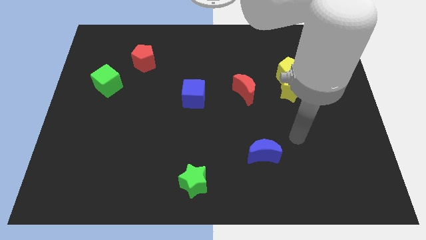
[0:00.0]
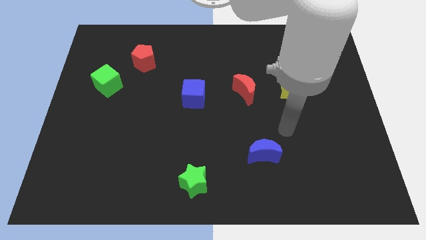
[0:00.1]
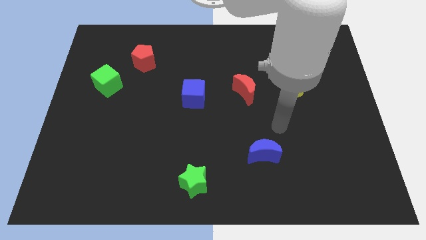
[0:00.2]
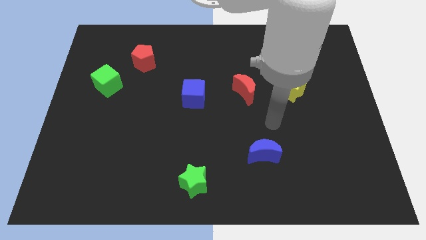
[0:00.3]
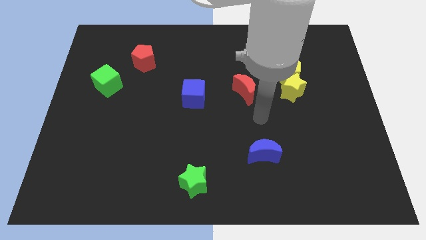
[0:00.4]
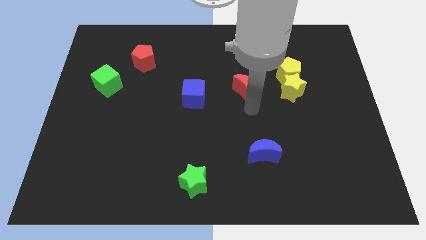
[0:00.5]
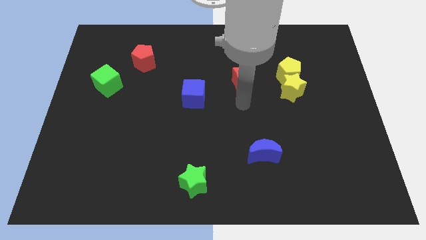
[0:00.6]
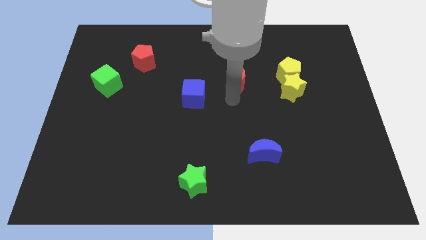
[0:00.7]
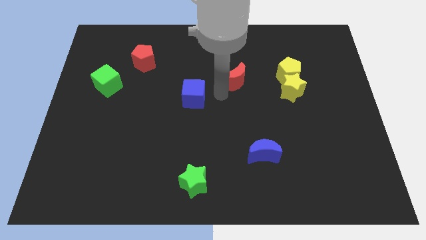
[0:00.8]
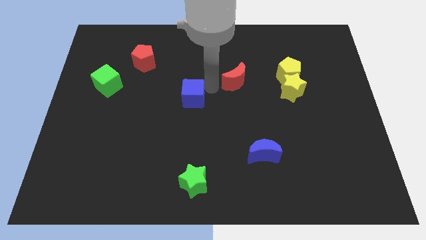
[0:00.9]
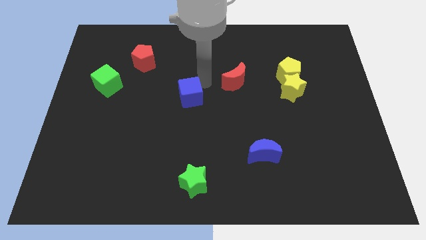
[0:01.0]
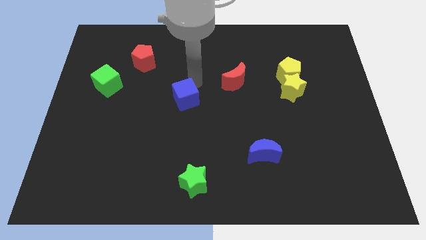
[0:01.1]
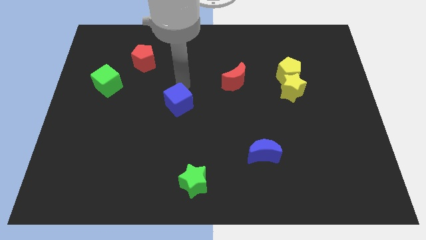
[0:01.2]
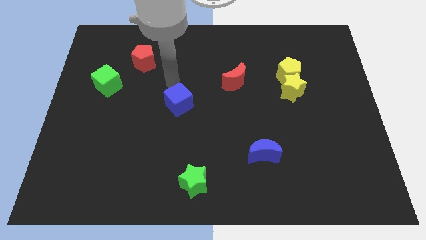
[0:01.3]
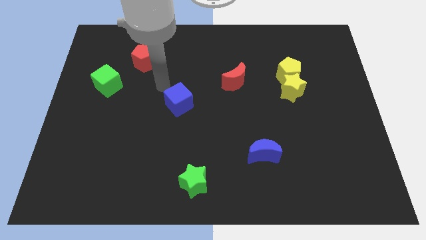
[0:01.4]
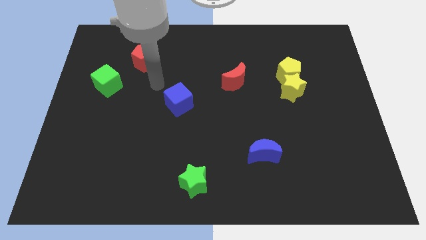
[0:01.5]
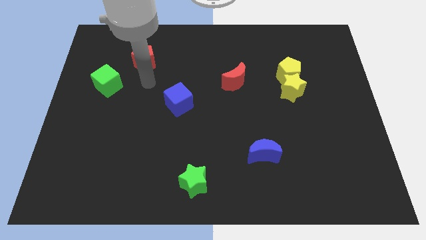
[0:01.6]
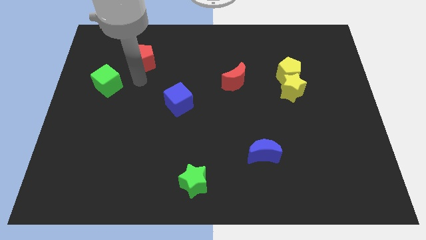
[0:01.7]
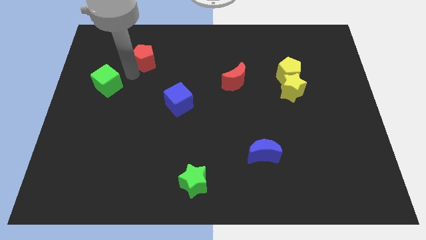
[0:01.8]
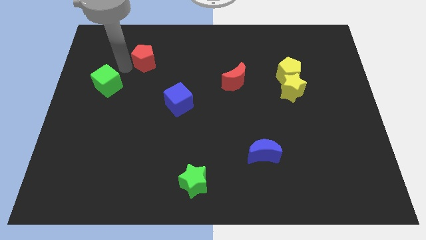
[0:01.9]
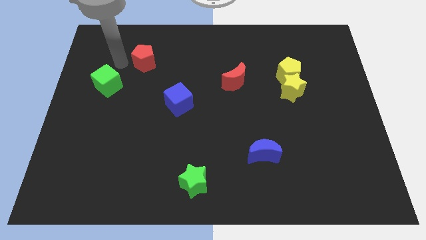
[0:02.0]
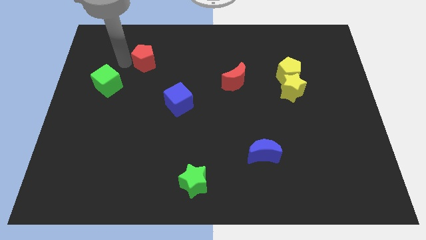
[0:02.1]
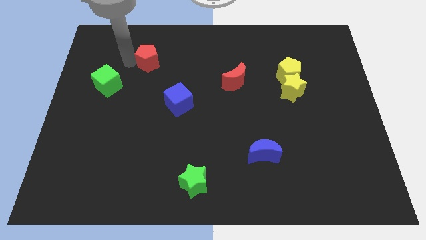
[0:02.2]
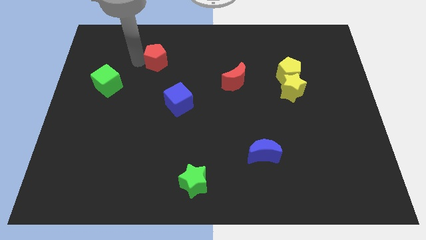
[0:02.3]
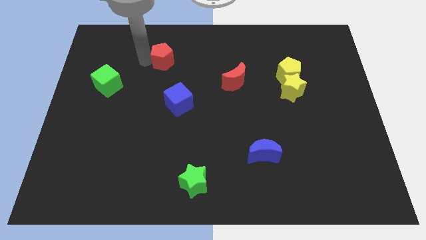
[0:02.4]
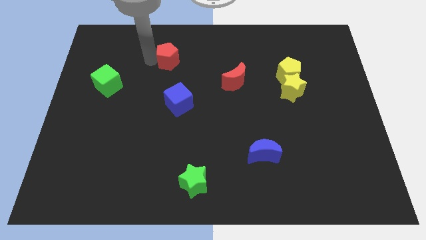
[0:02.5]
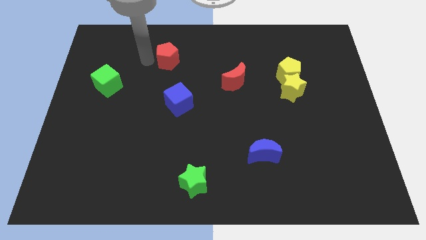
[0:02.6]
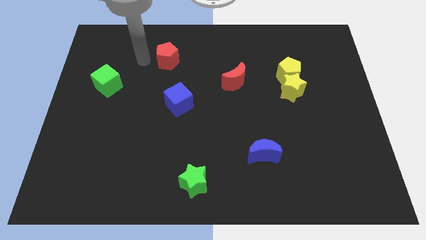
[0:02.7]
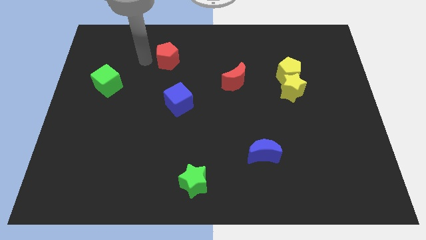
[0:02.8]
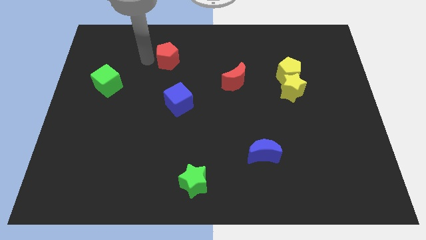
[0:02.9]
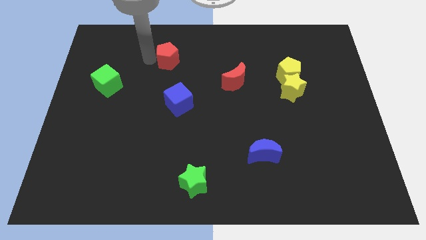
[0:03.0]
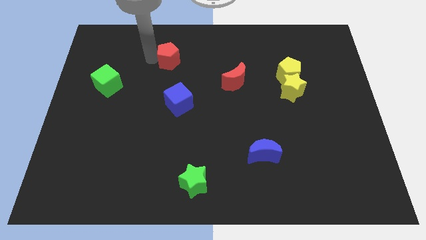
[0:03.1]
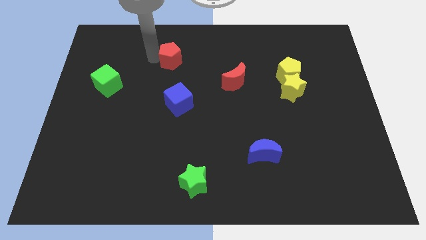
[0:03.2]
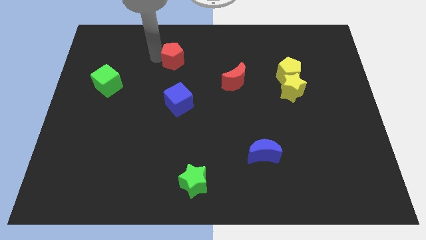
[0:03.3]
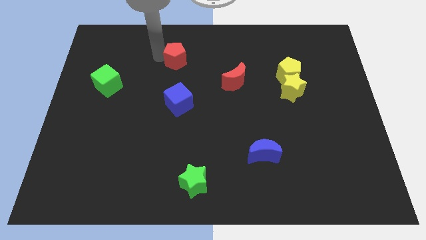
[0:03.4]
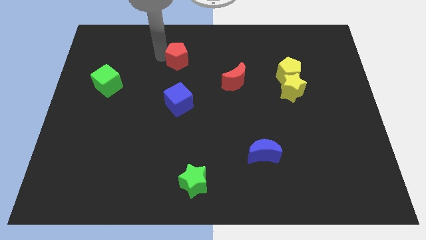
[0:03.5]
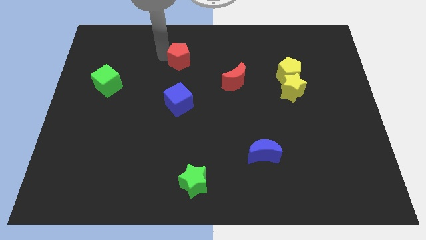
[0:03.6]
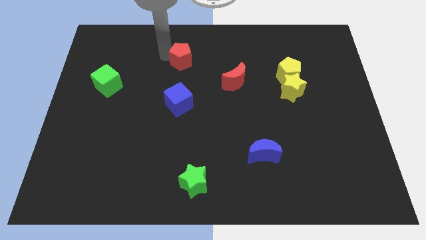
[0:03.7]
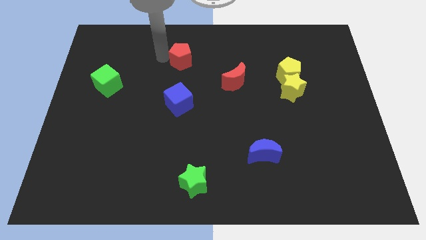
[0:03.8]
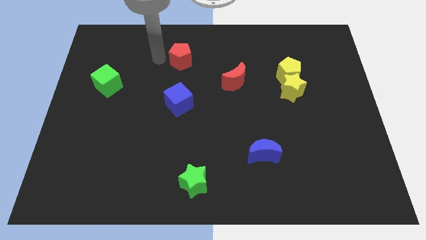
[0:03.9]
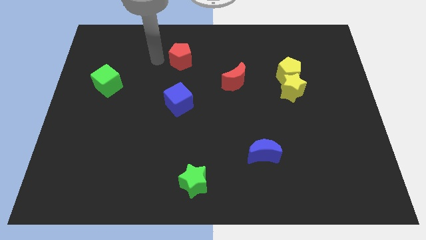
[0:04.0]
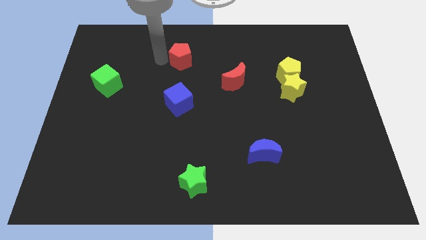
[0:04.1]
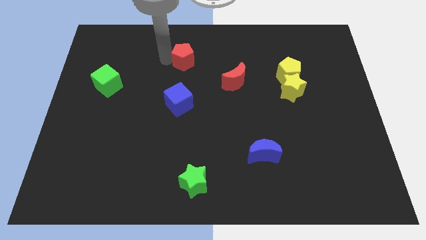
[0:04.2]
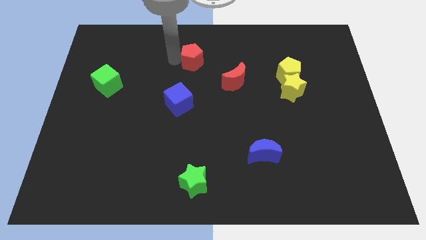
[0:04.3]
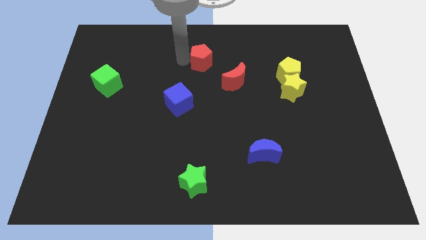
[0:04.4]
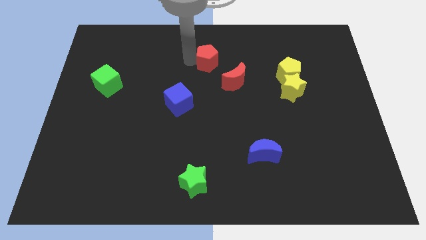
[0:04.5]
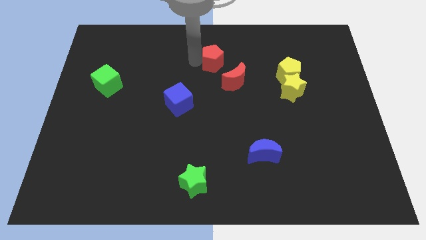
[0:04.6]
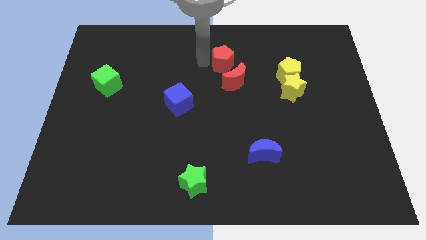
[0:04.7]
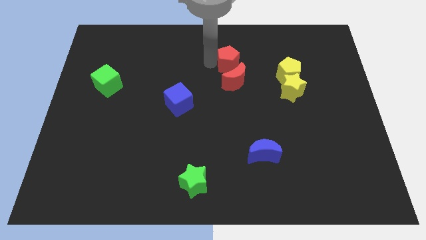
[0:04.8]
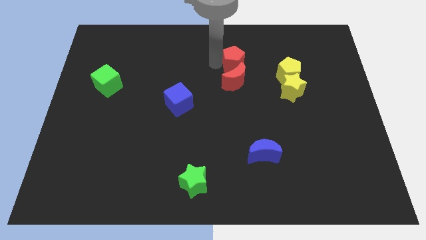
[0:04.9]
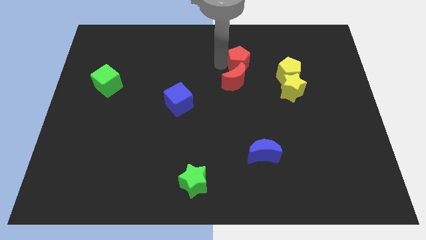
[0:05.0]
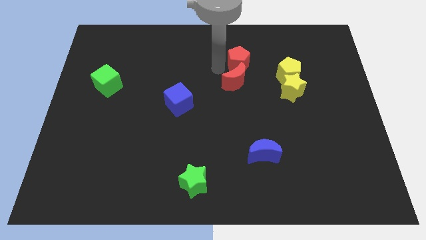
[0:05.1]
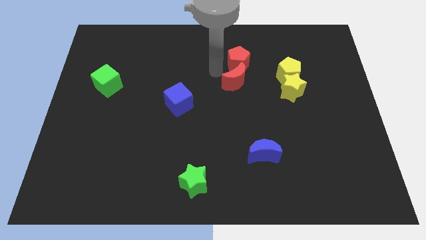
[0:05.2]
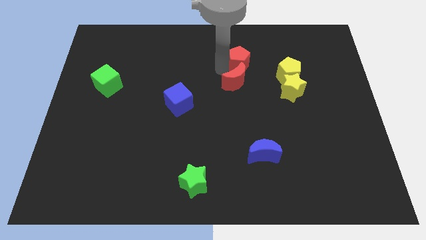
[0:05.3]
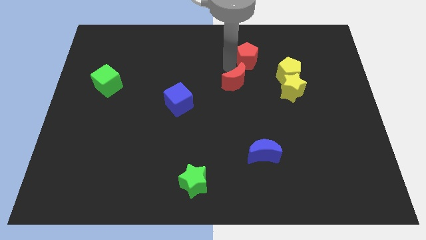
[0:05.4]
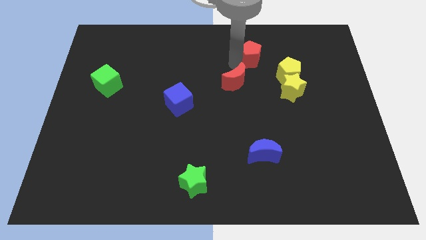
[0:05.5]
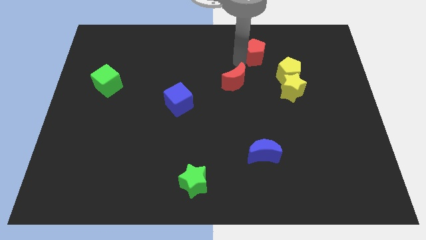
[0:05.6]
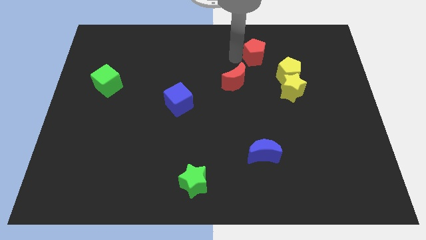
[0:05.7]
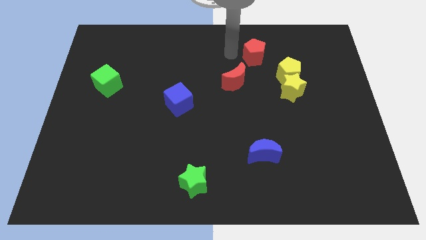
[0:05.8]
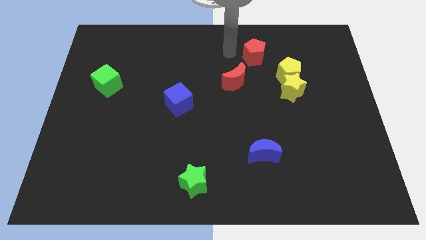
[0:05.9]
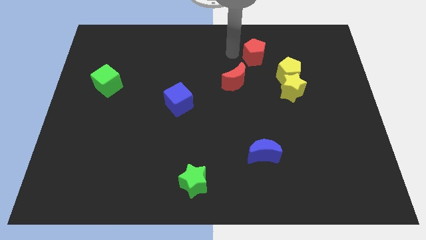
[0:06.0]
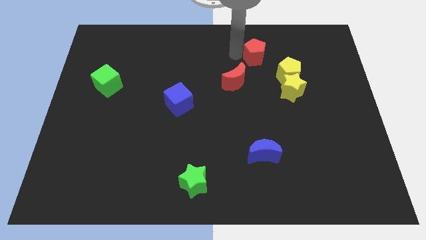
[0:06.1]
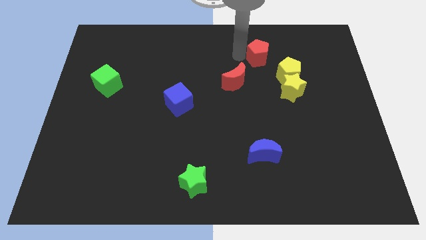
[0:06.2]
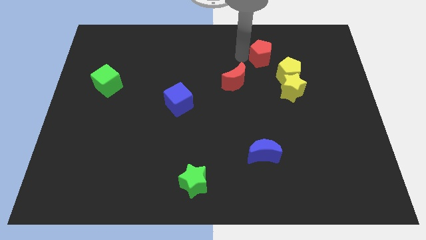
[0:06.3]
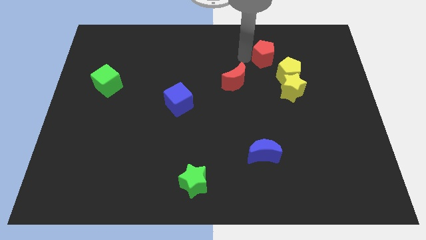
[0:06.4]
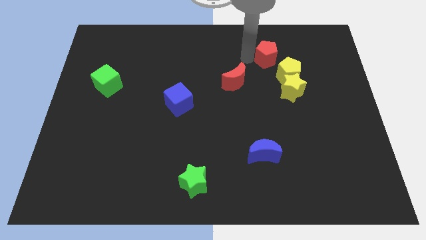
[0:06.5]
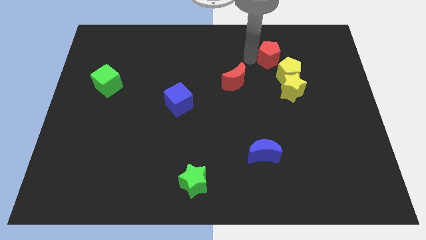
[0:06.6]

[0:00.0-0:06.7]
move the red pentagon above the yellow star

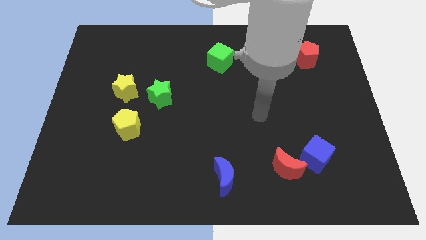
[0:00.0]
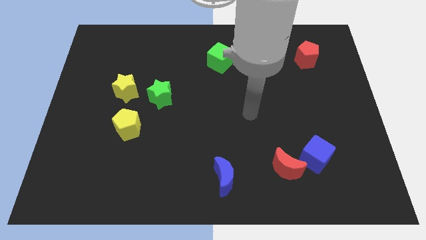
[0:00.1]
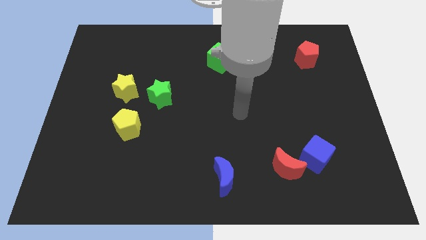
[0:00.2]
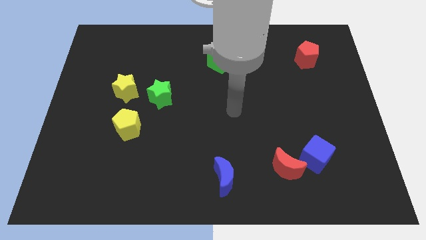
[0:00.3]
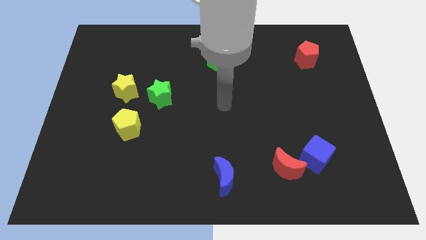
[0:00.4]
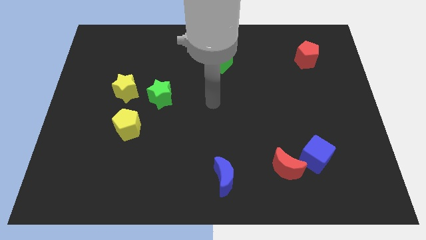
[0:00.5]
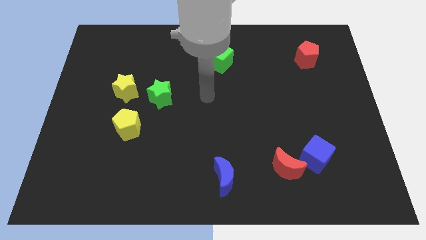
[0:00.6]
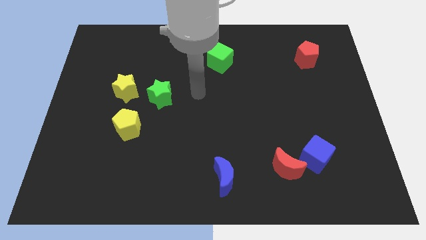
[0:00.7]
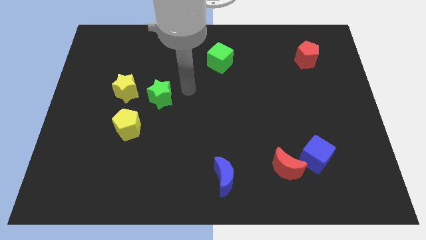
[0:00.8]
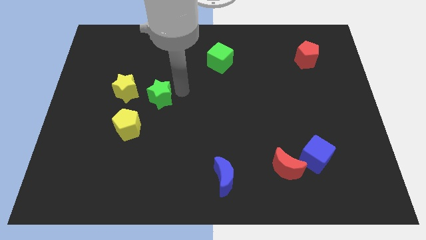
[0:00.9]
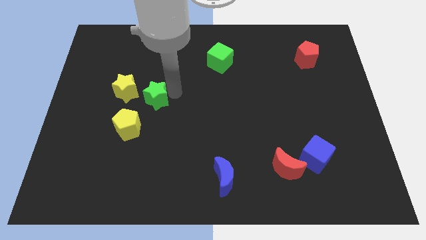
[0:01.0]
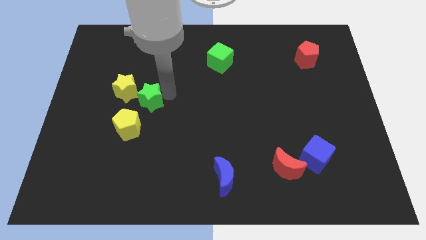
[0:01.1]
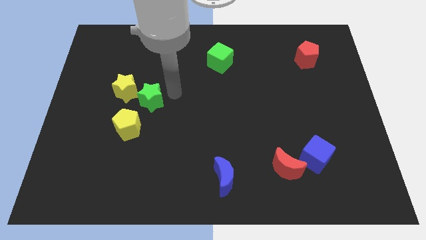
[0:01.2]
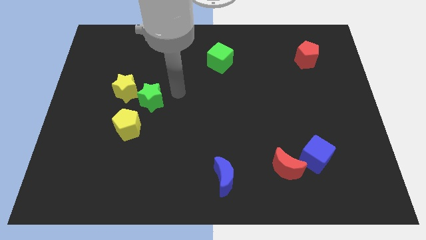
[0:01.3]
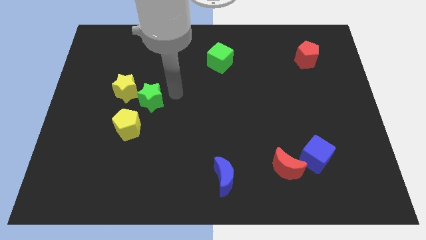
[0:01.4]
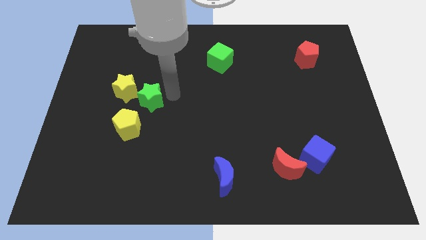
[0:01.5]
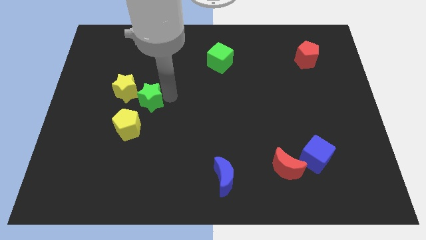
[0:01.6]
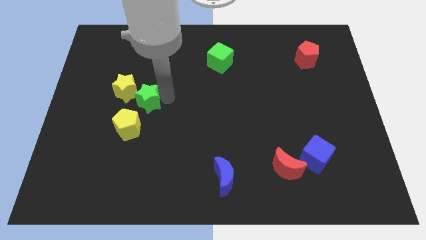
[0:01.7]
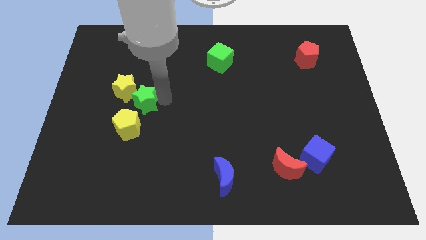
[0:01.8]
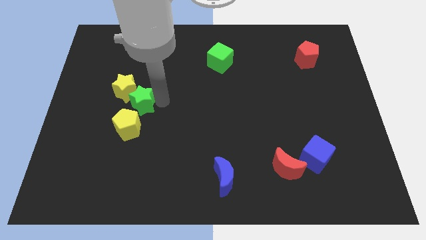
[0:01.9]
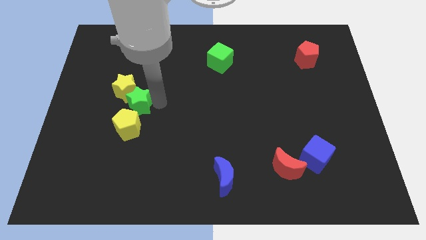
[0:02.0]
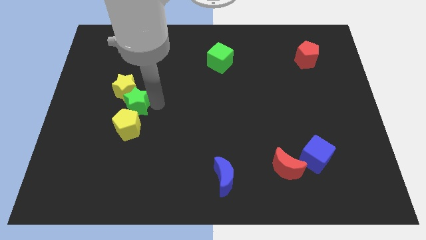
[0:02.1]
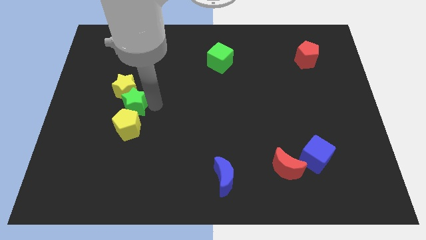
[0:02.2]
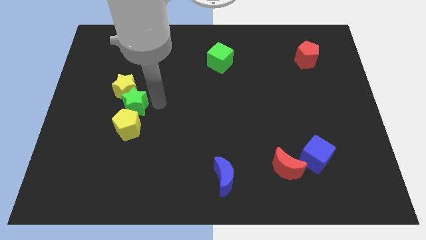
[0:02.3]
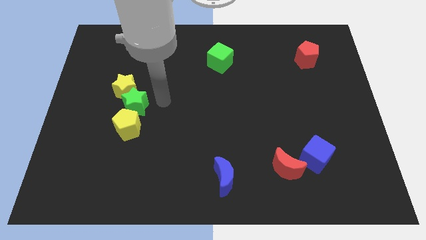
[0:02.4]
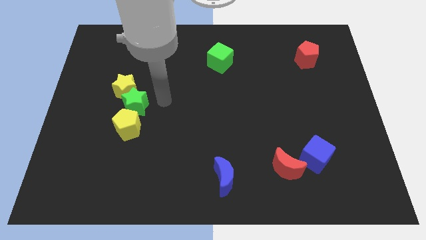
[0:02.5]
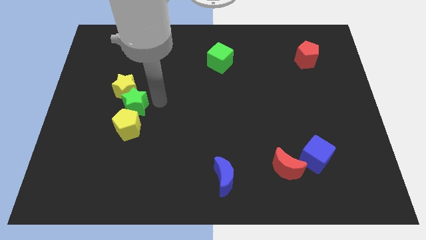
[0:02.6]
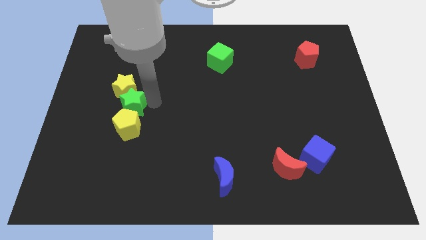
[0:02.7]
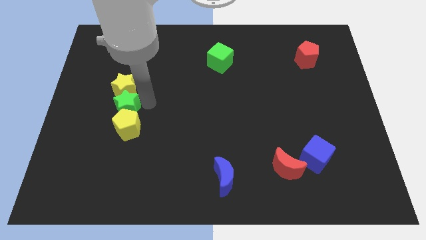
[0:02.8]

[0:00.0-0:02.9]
slide the green star to the bottom left of the yellow star
